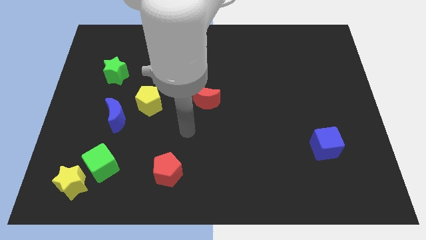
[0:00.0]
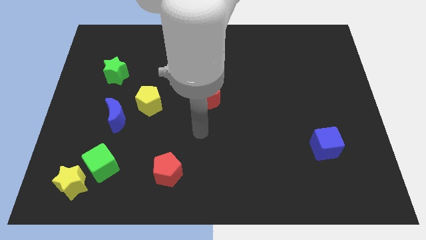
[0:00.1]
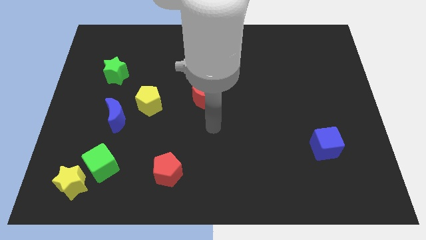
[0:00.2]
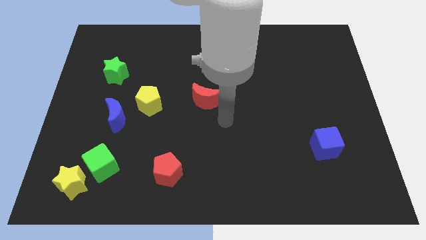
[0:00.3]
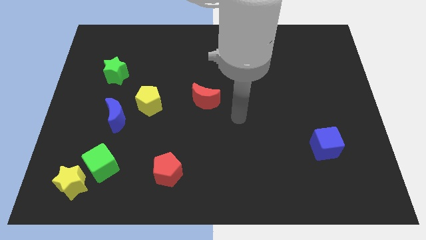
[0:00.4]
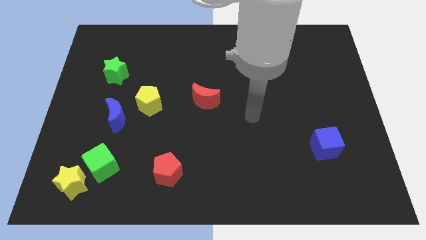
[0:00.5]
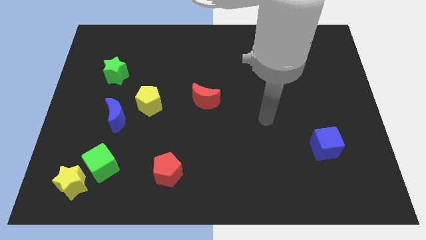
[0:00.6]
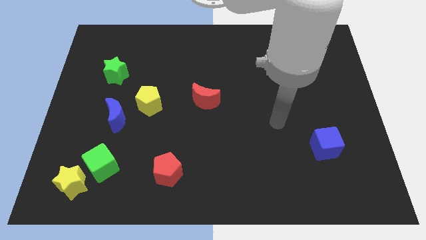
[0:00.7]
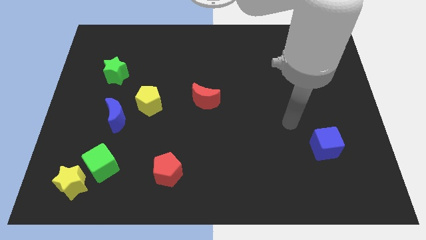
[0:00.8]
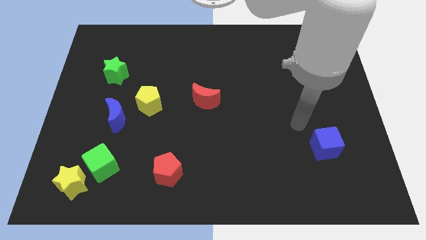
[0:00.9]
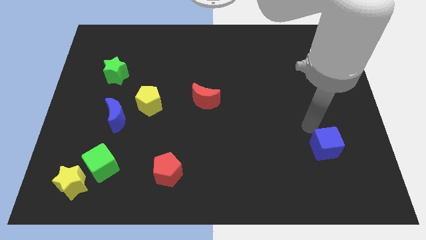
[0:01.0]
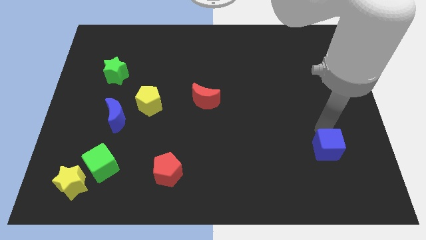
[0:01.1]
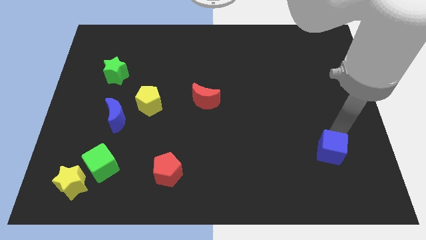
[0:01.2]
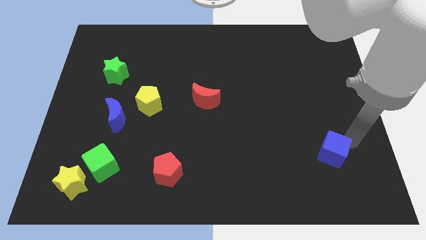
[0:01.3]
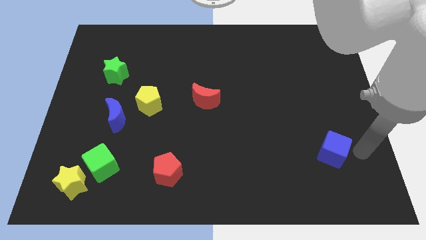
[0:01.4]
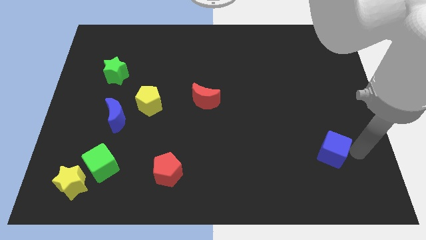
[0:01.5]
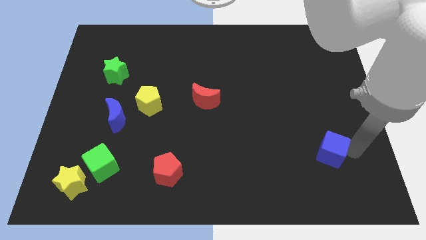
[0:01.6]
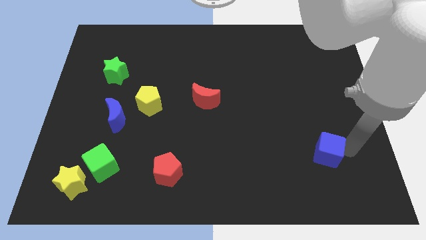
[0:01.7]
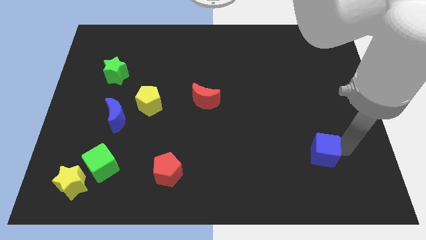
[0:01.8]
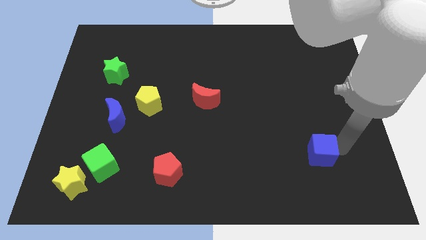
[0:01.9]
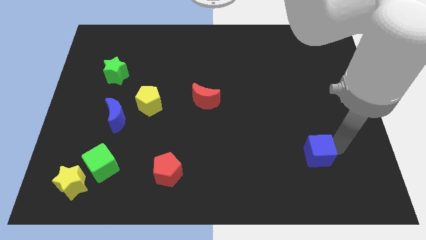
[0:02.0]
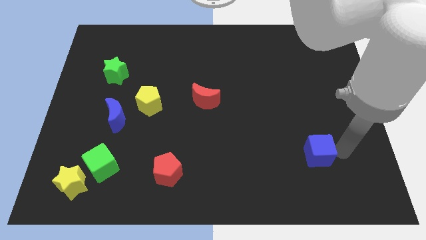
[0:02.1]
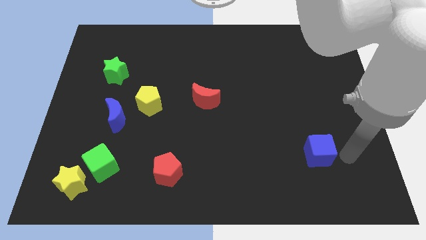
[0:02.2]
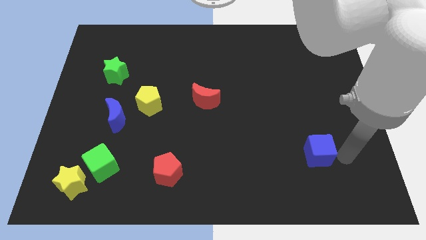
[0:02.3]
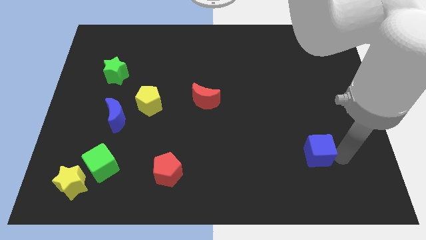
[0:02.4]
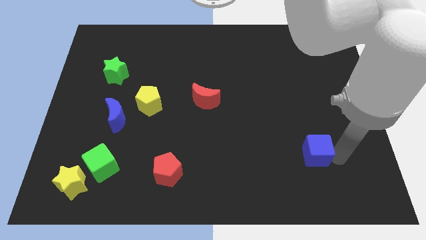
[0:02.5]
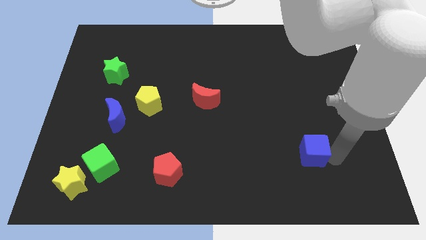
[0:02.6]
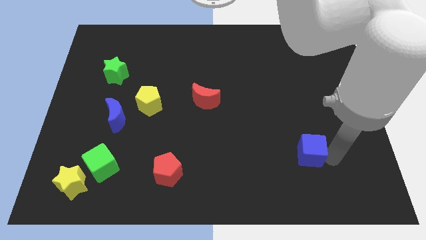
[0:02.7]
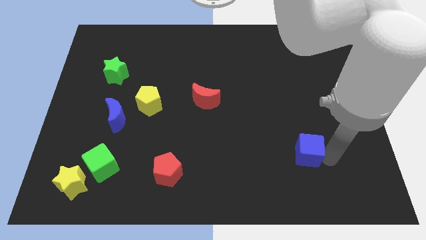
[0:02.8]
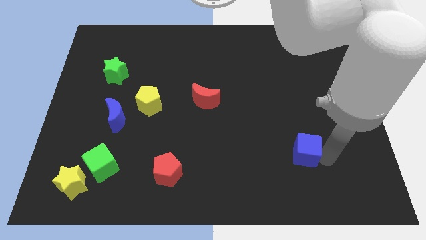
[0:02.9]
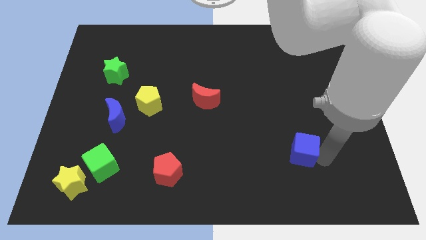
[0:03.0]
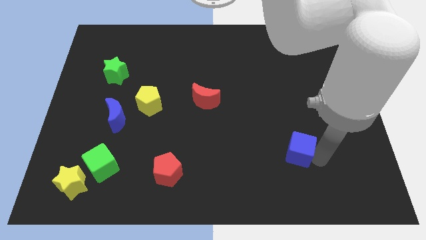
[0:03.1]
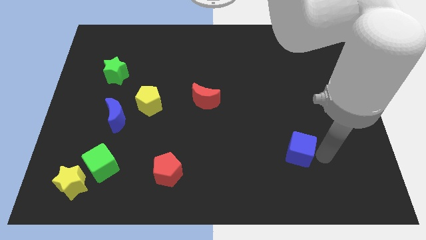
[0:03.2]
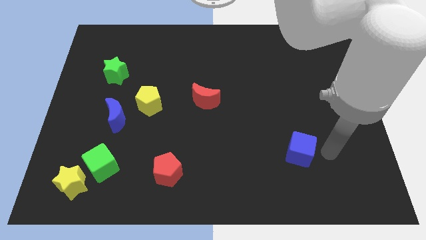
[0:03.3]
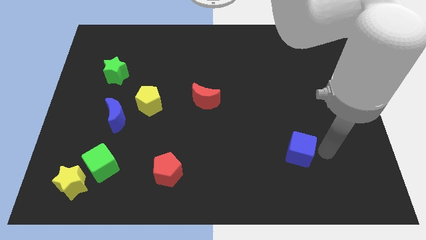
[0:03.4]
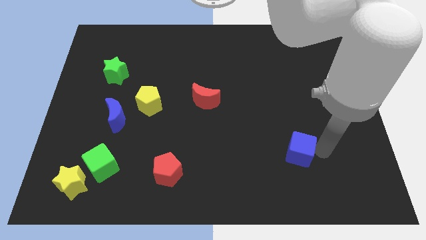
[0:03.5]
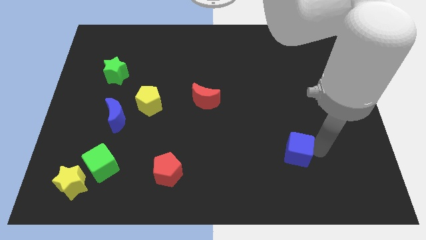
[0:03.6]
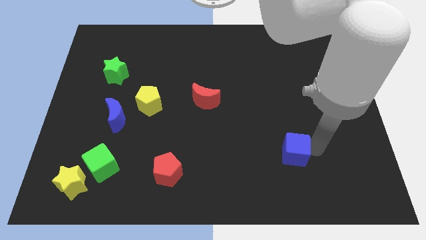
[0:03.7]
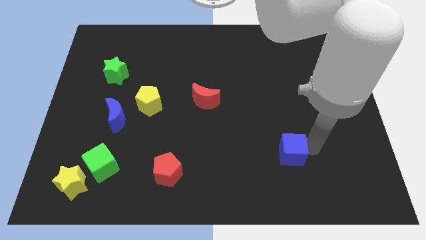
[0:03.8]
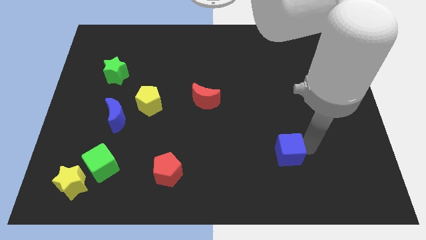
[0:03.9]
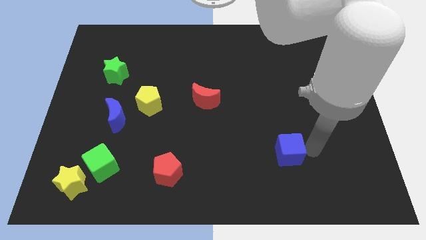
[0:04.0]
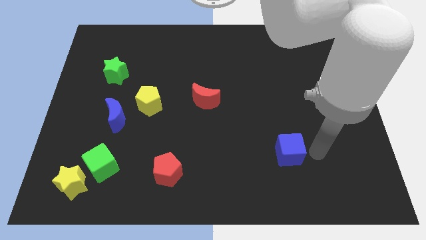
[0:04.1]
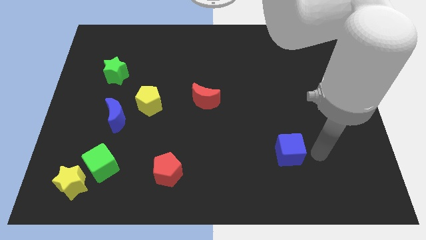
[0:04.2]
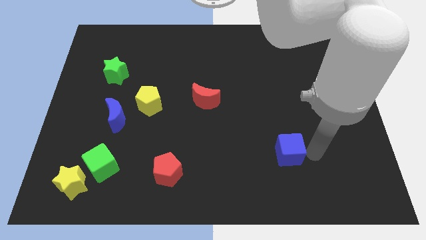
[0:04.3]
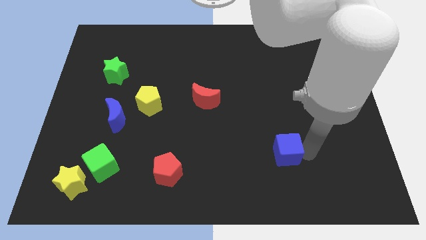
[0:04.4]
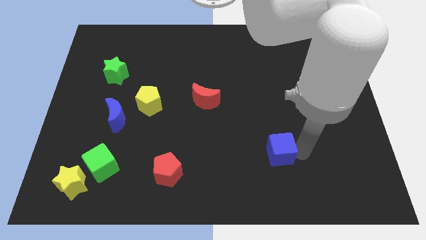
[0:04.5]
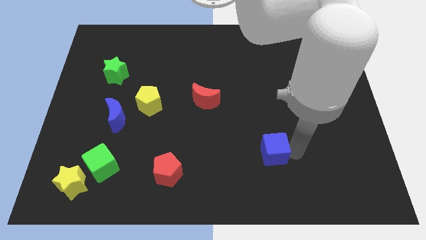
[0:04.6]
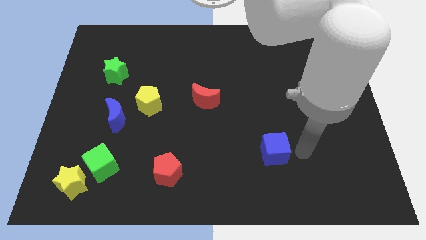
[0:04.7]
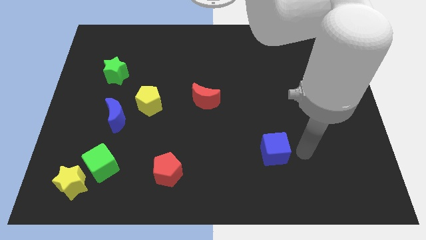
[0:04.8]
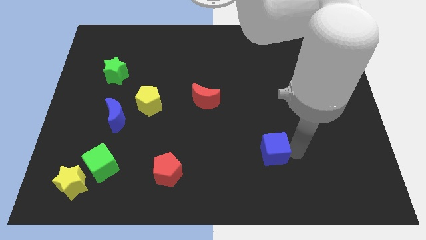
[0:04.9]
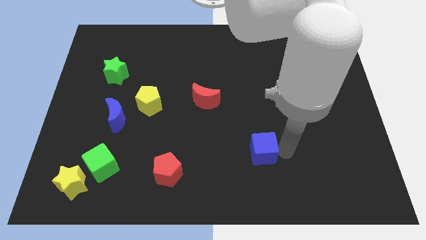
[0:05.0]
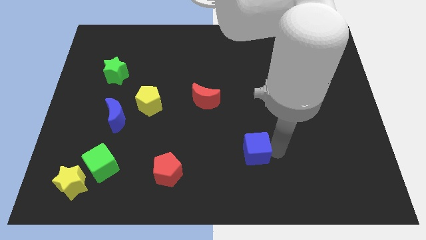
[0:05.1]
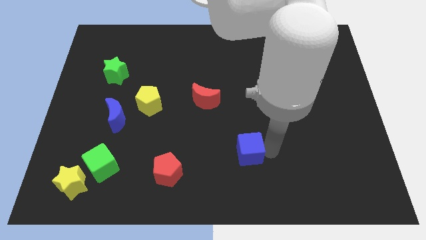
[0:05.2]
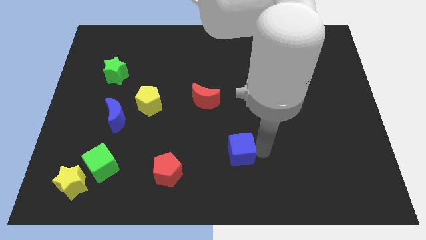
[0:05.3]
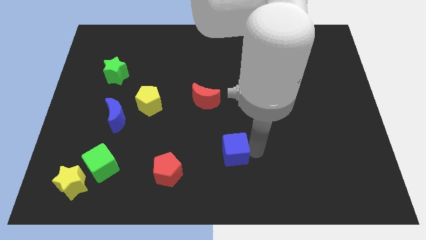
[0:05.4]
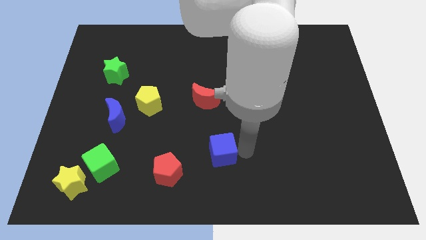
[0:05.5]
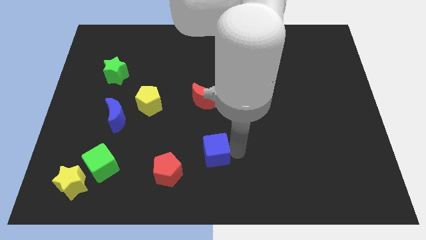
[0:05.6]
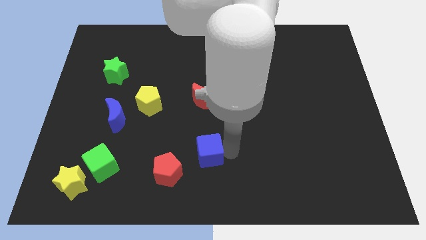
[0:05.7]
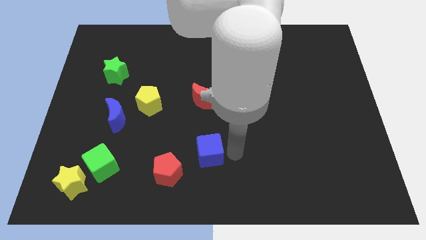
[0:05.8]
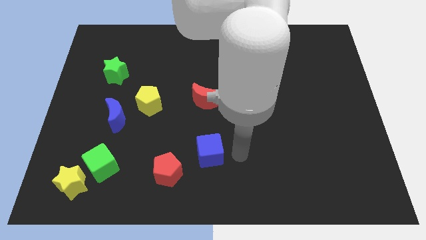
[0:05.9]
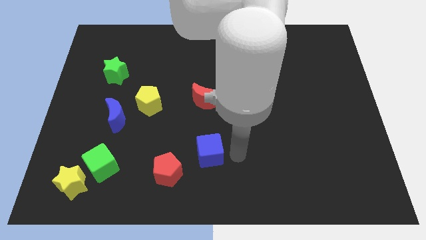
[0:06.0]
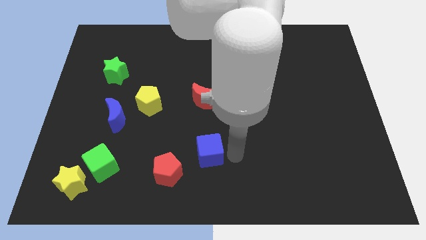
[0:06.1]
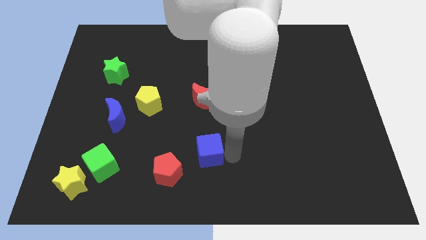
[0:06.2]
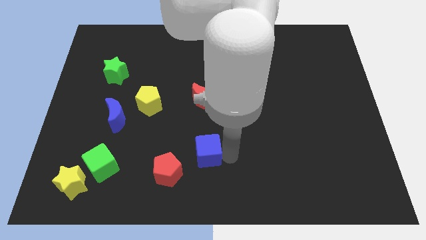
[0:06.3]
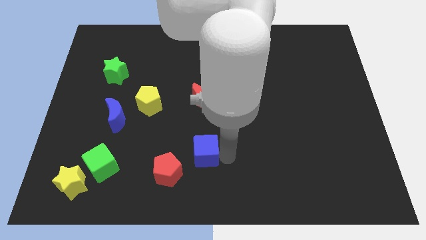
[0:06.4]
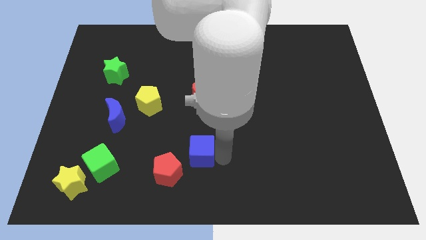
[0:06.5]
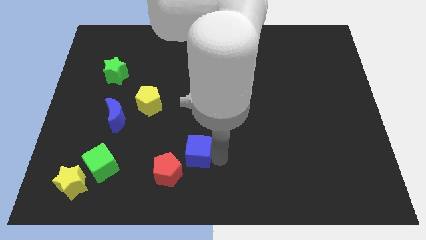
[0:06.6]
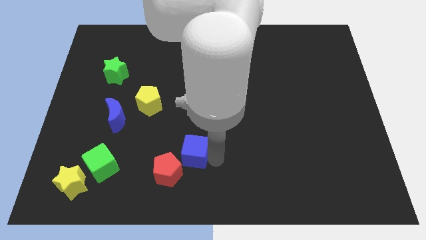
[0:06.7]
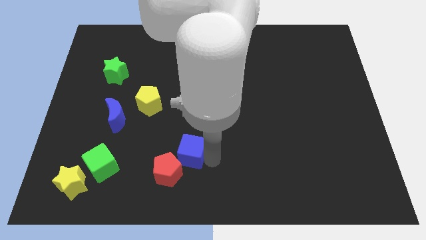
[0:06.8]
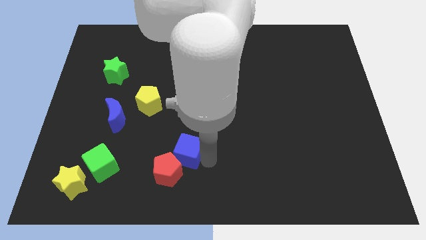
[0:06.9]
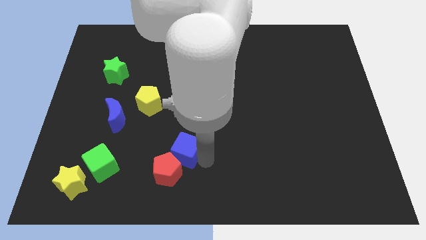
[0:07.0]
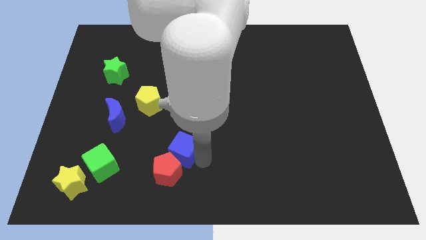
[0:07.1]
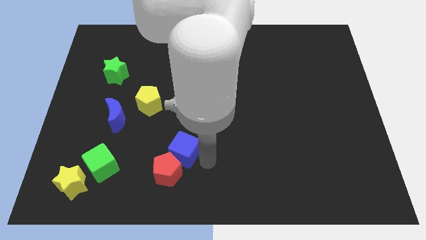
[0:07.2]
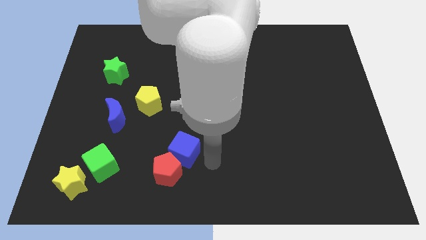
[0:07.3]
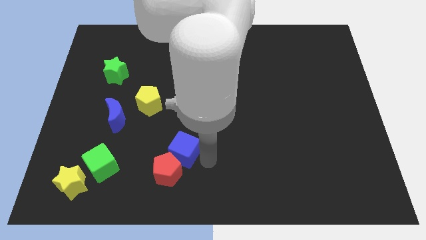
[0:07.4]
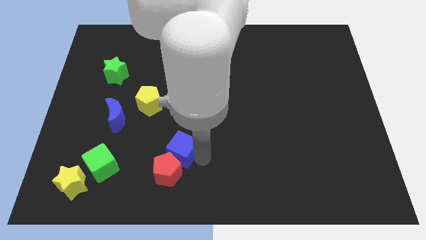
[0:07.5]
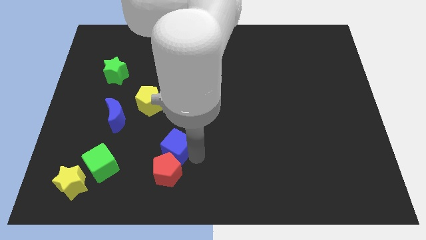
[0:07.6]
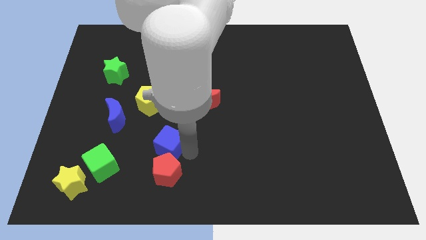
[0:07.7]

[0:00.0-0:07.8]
slide the blue cube to the top left of the red pentagon
